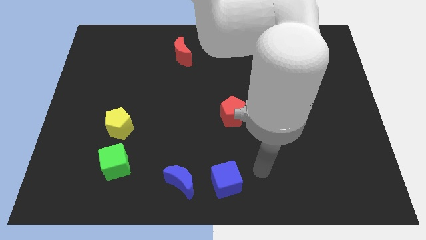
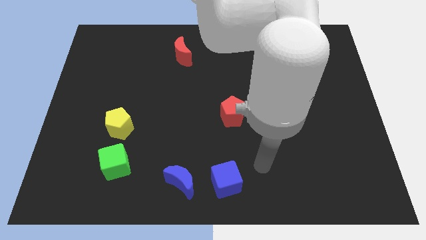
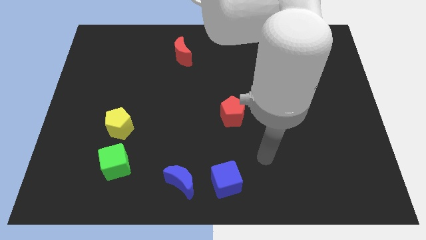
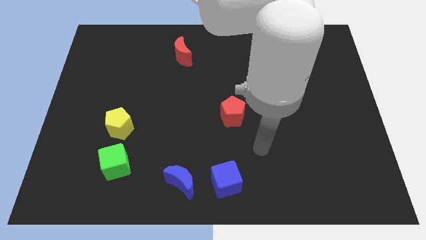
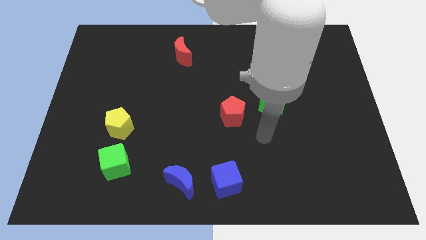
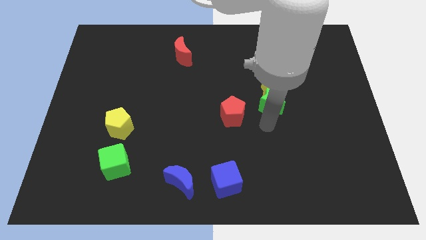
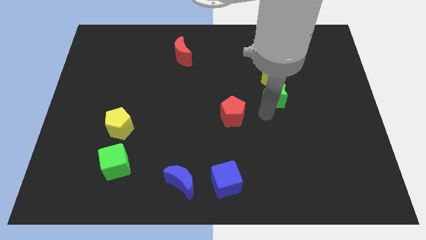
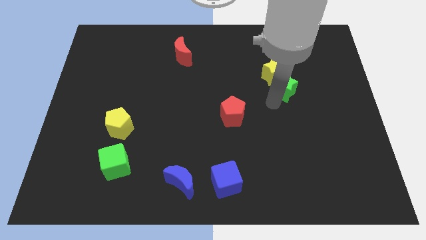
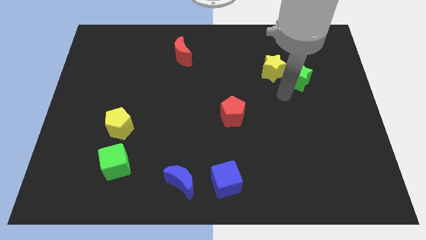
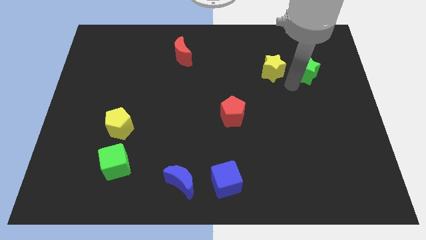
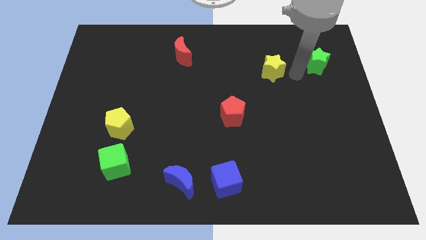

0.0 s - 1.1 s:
pull the yellow star apart from the green star

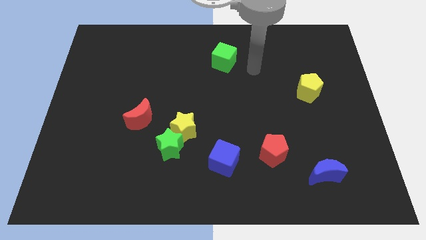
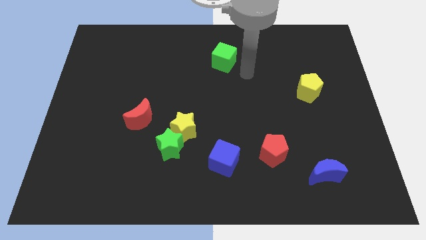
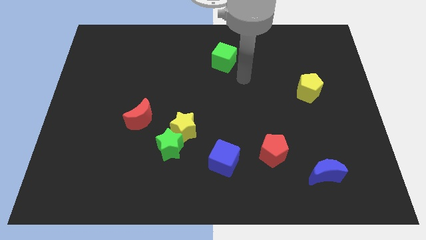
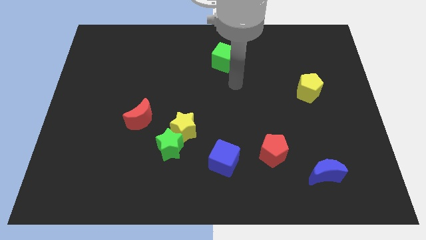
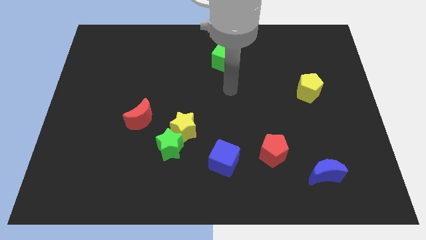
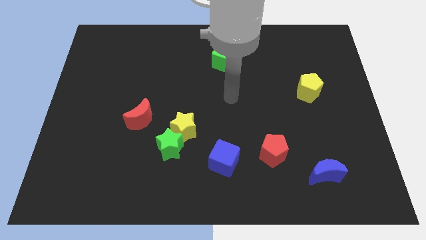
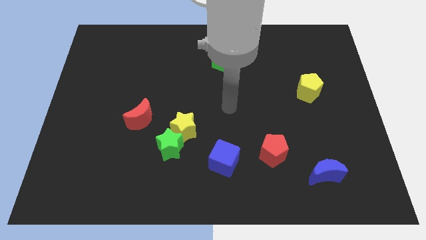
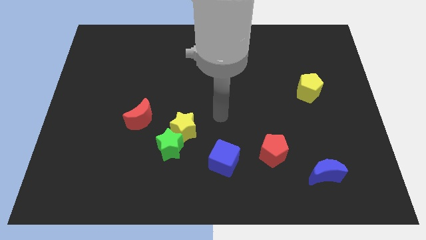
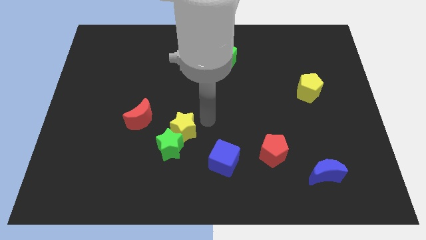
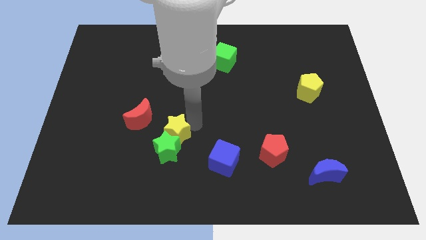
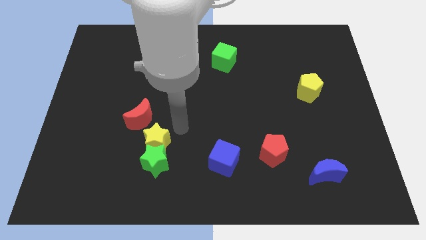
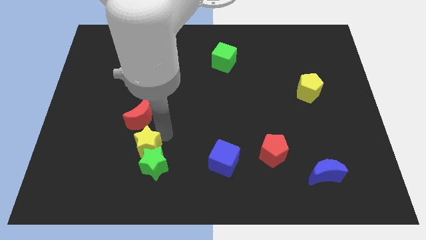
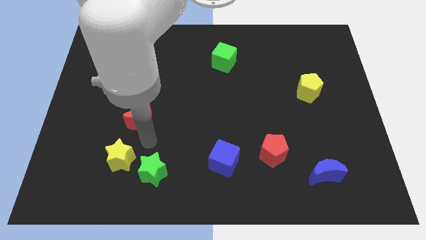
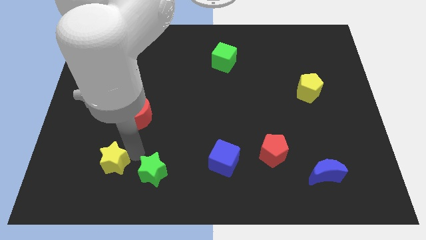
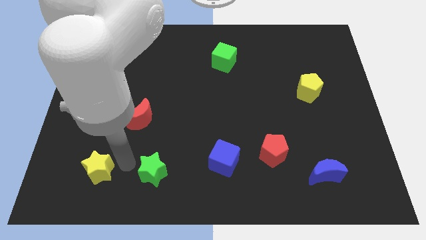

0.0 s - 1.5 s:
move the green star away from the yellow star

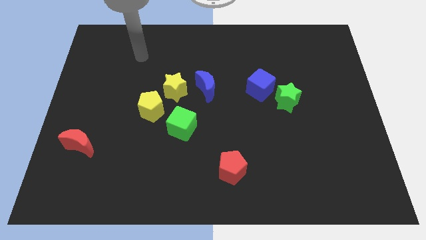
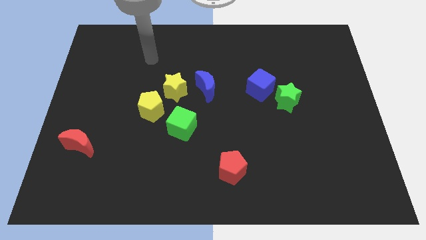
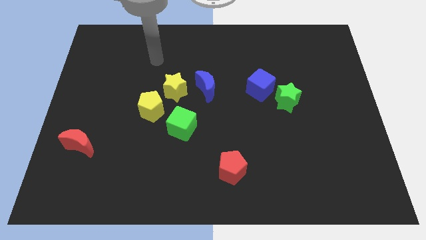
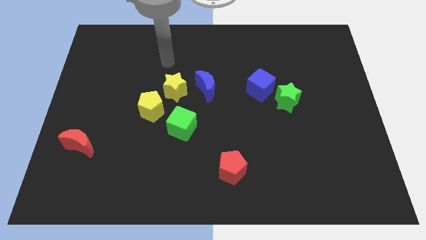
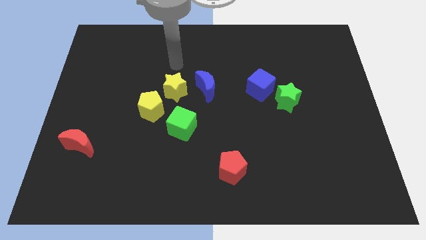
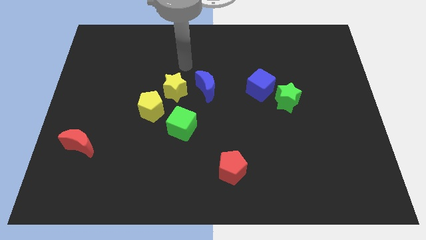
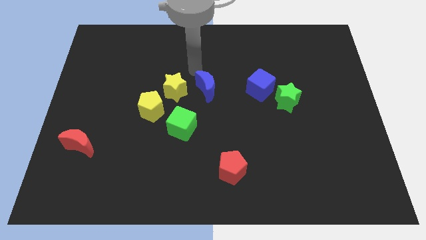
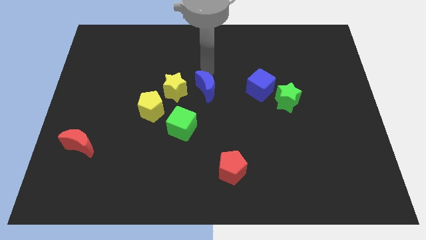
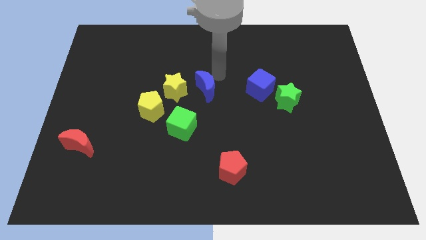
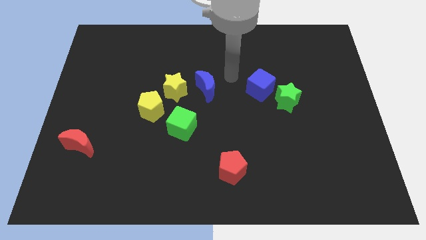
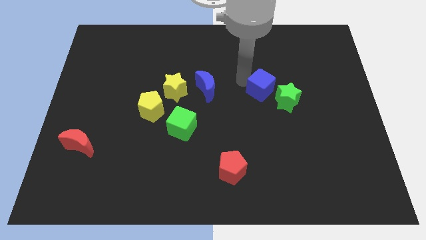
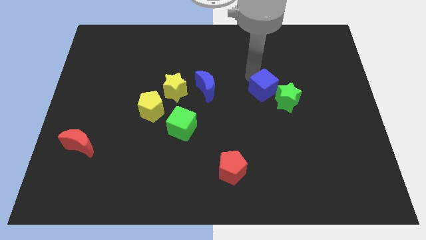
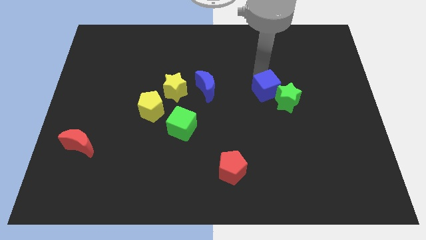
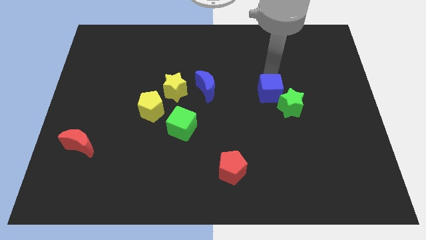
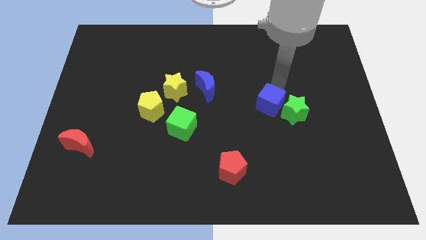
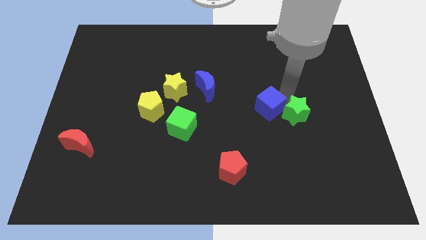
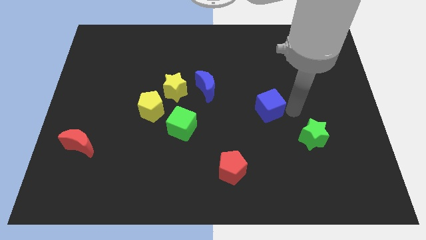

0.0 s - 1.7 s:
pull the blue cube apart from the green star

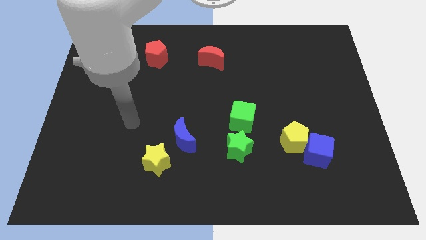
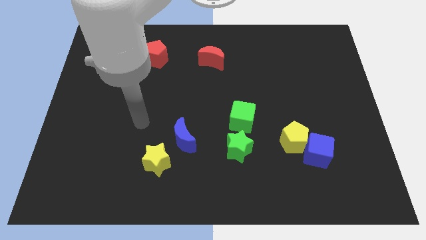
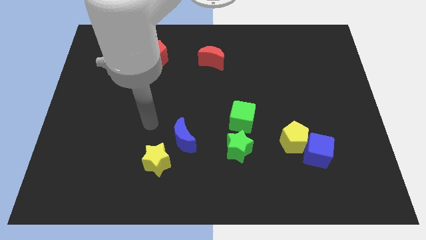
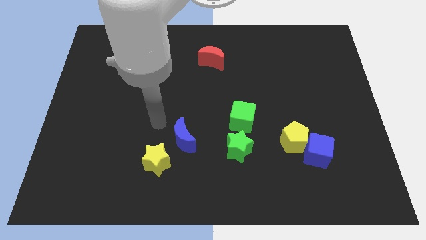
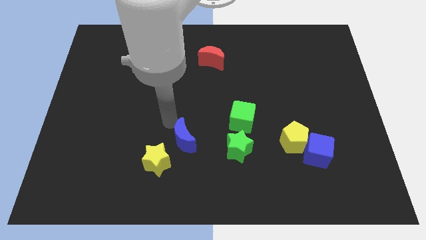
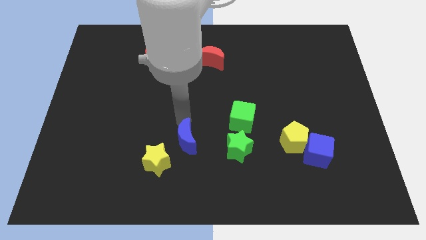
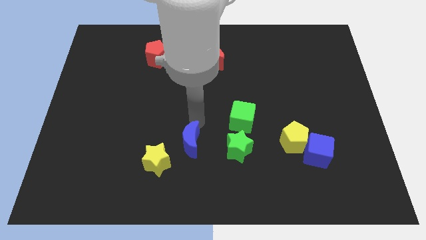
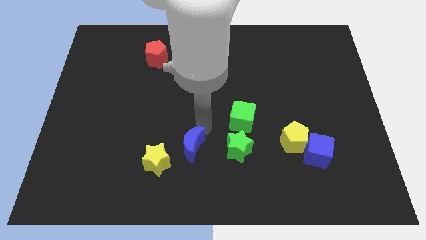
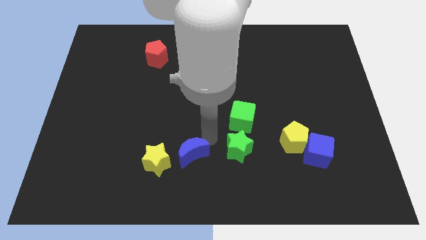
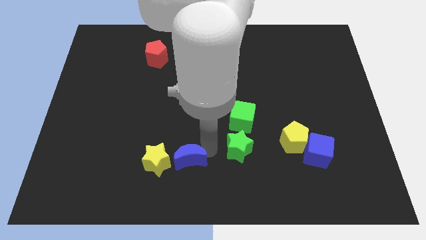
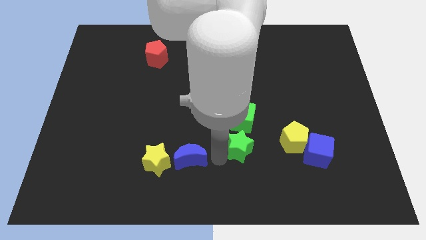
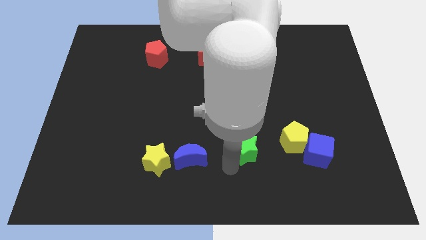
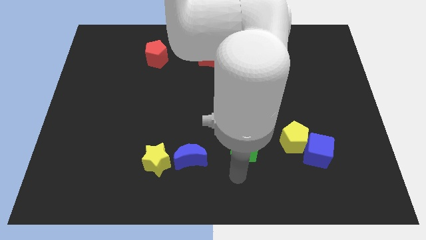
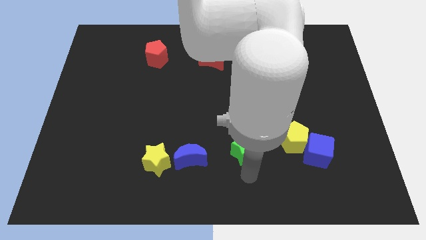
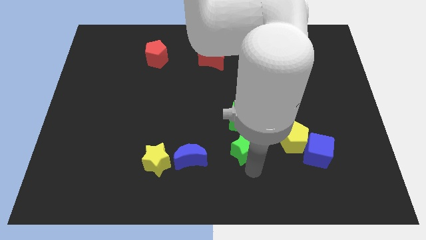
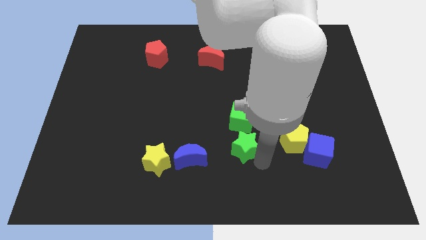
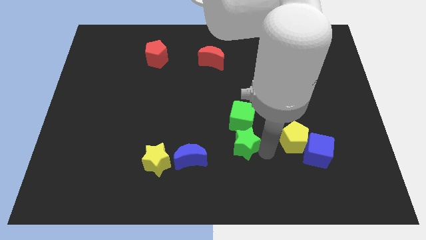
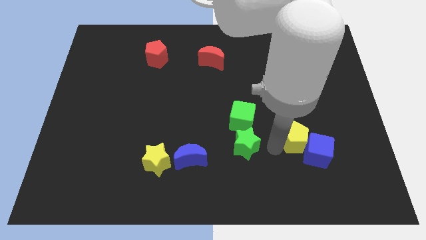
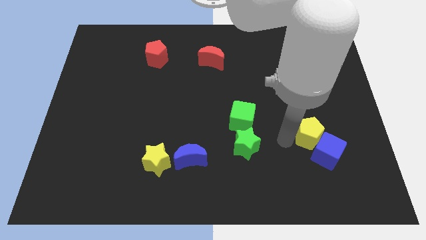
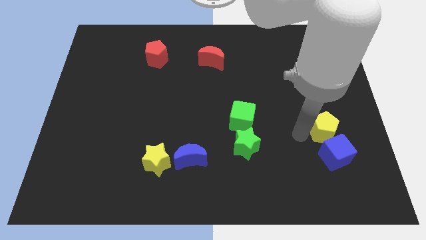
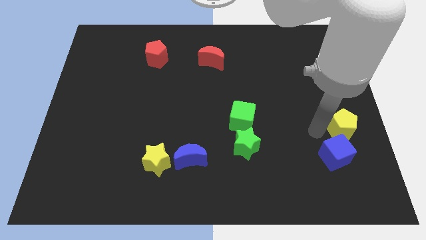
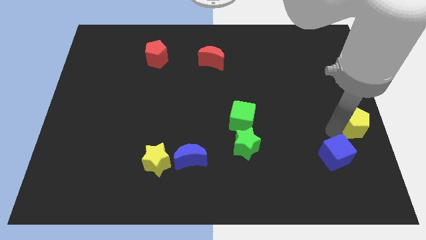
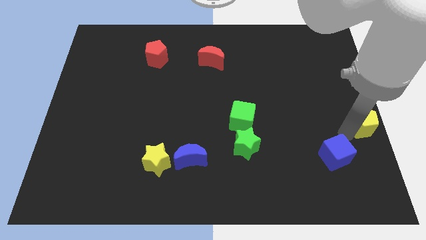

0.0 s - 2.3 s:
move the blue cube away from the yellow pentagon

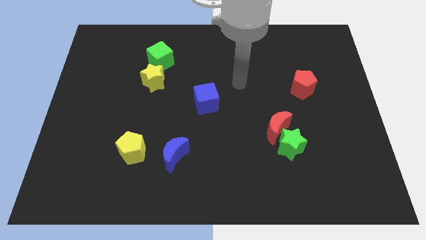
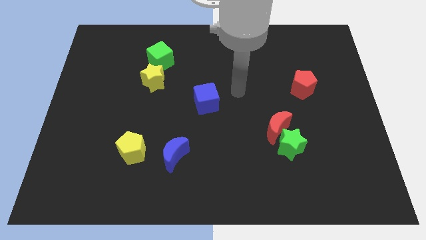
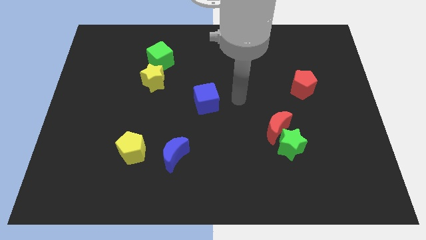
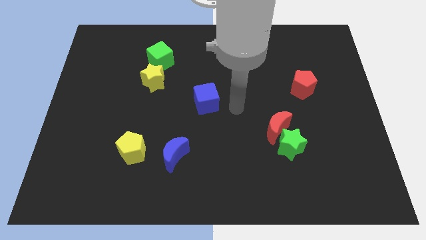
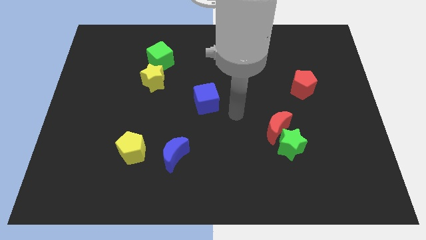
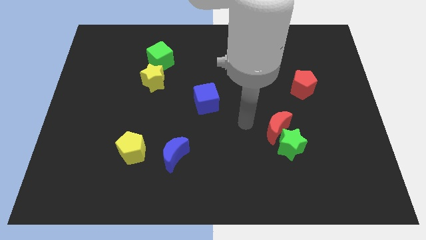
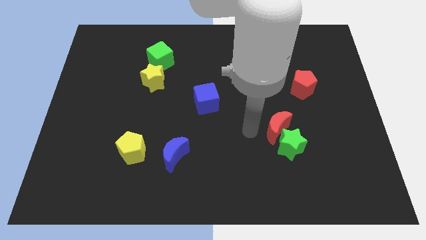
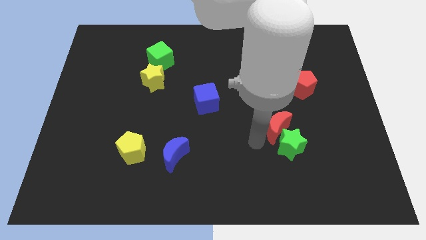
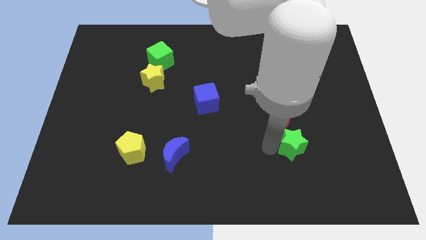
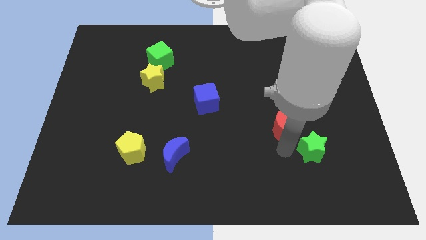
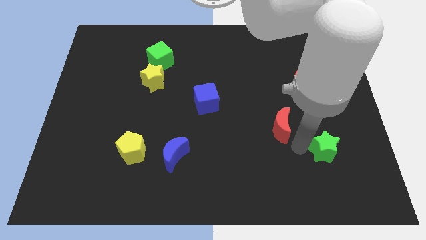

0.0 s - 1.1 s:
move the red moon away from the green star

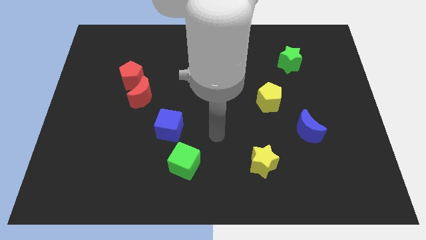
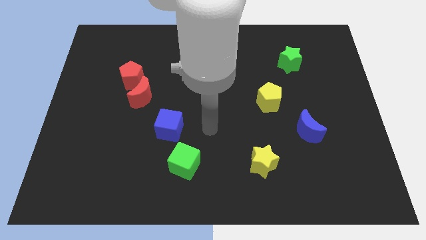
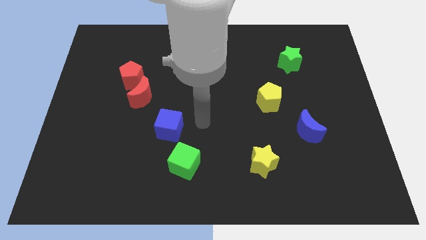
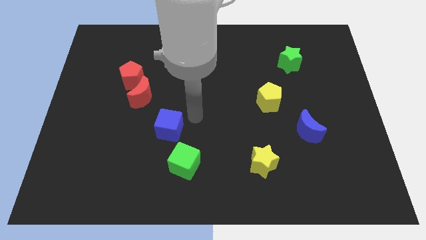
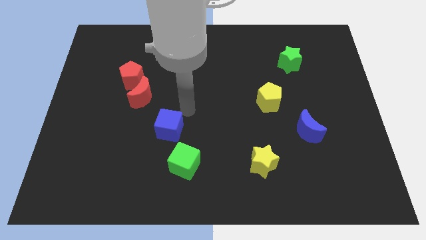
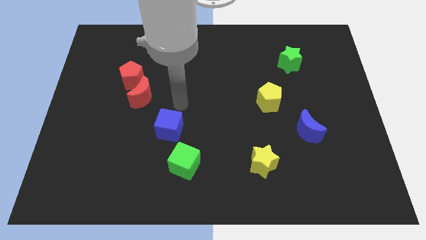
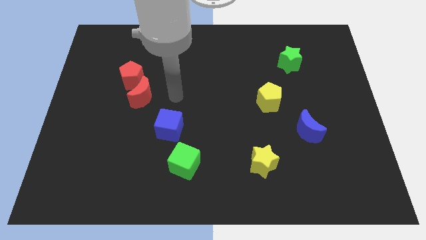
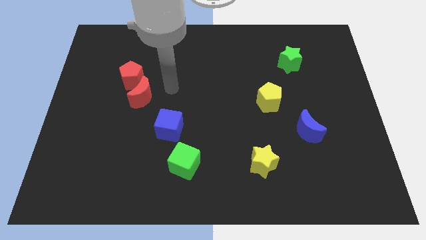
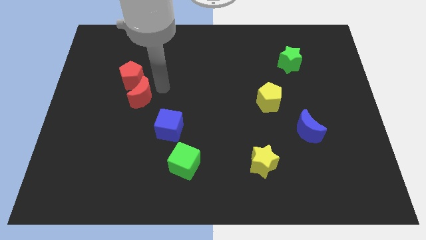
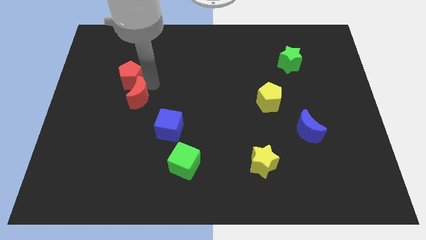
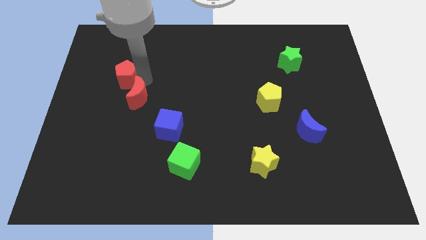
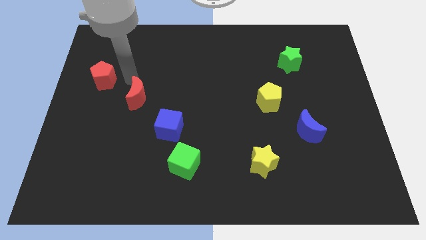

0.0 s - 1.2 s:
separate the red moon from the red pentagon

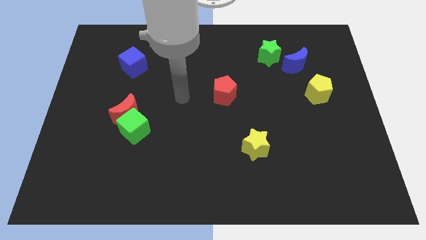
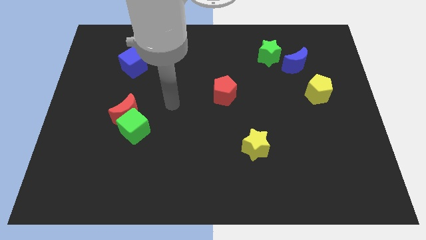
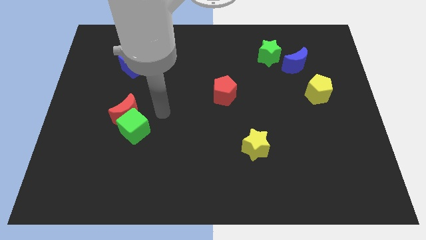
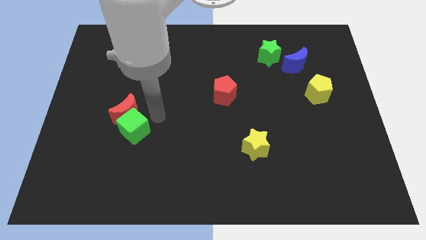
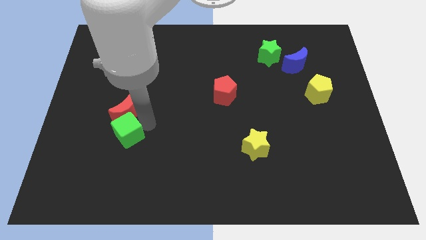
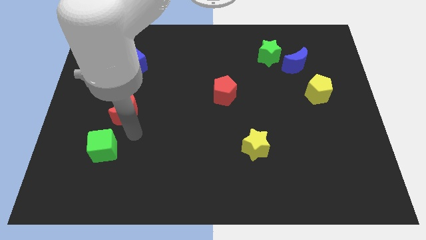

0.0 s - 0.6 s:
pull the red moon apart from the green cube

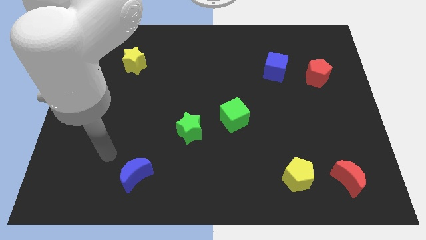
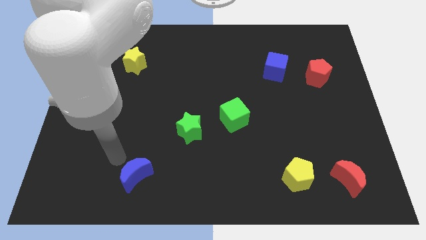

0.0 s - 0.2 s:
pull the green cube apart from the green star
